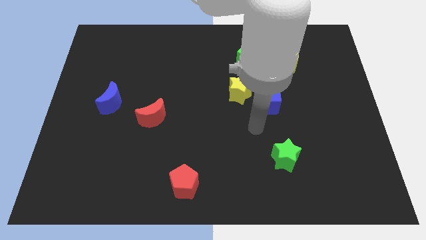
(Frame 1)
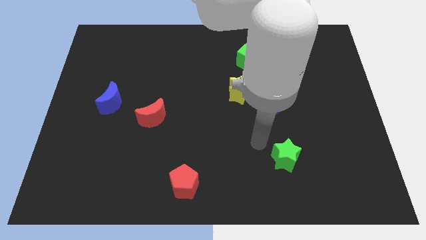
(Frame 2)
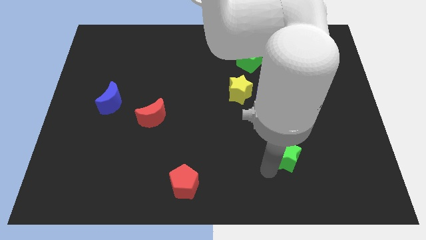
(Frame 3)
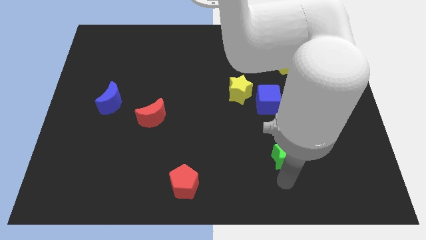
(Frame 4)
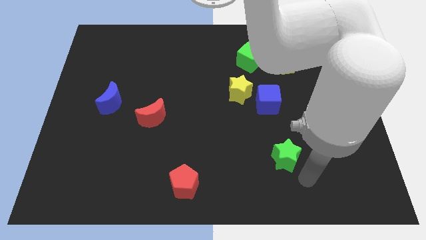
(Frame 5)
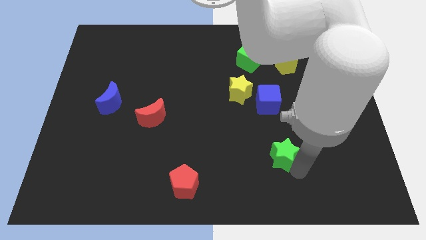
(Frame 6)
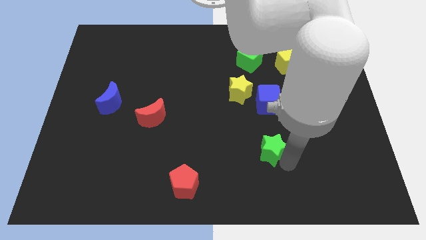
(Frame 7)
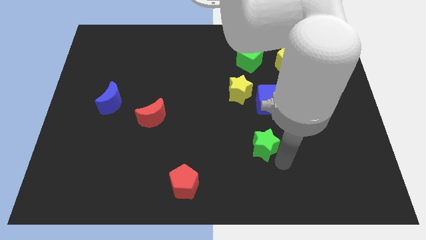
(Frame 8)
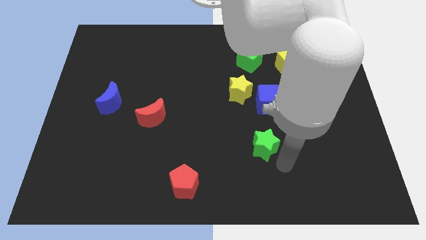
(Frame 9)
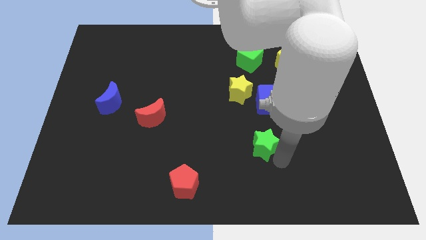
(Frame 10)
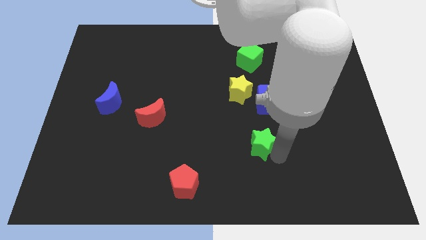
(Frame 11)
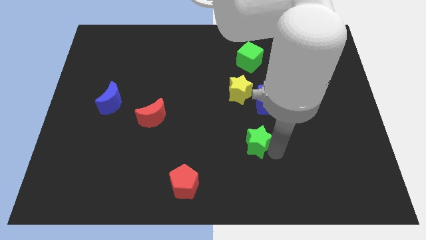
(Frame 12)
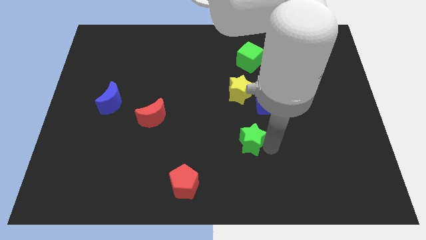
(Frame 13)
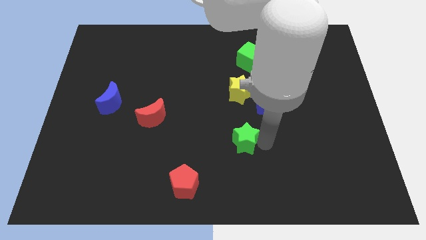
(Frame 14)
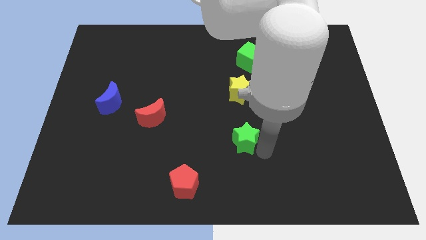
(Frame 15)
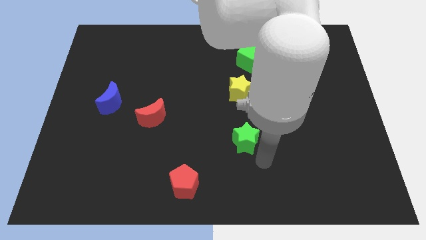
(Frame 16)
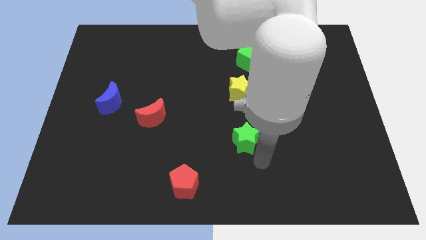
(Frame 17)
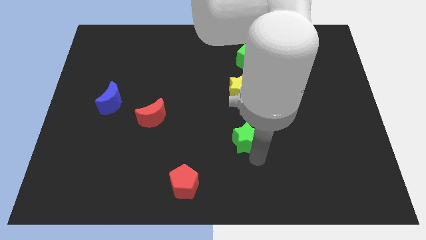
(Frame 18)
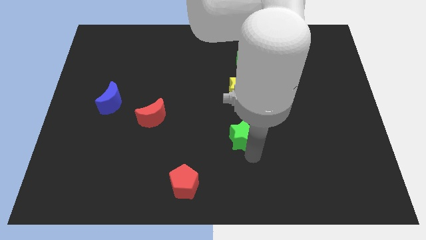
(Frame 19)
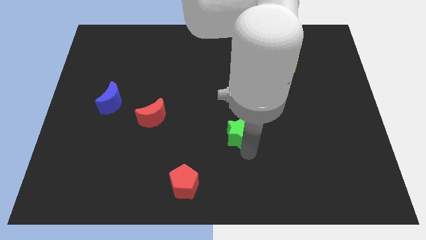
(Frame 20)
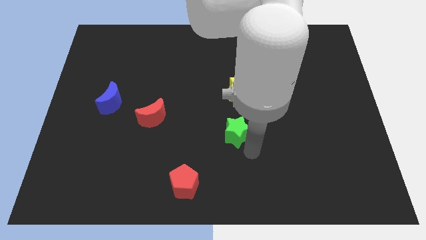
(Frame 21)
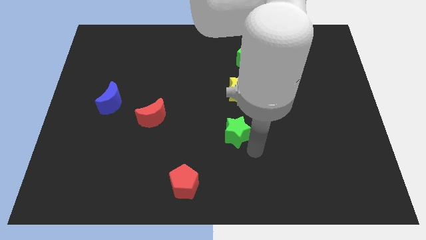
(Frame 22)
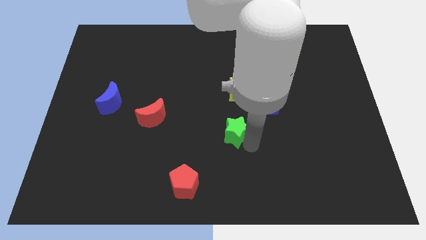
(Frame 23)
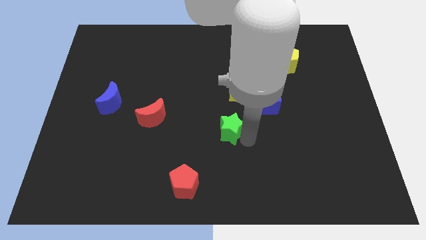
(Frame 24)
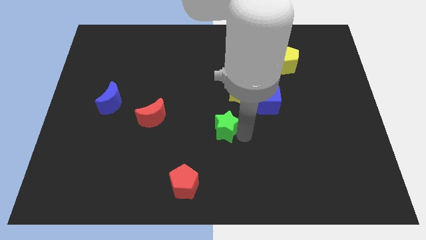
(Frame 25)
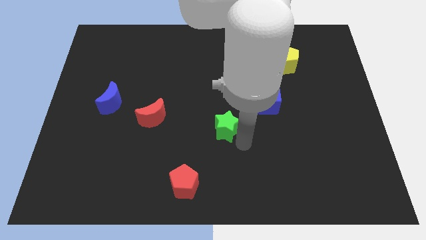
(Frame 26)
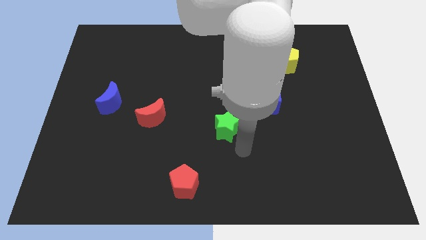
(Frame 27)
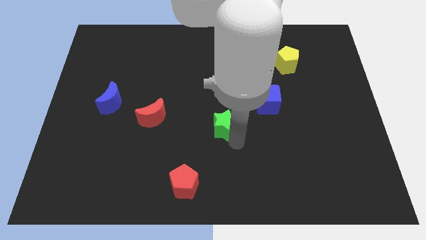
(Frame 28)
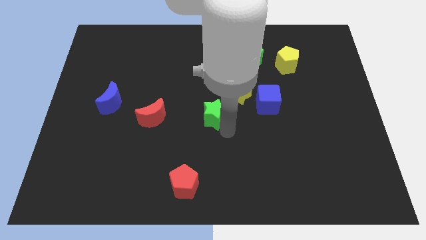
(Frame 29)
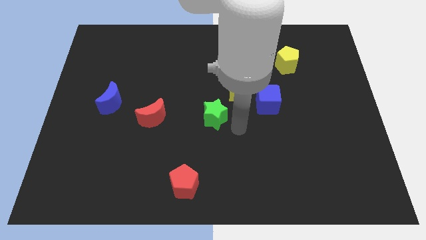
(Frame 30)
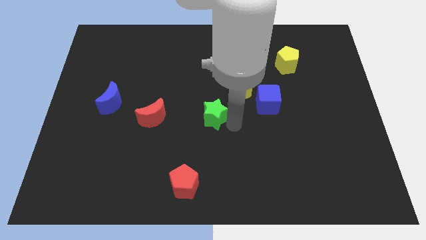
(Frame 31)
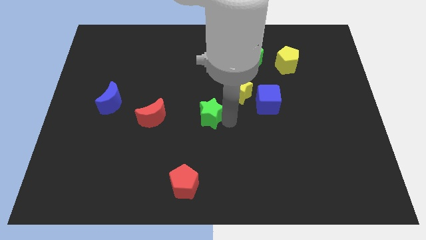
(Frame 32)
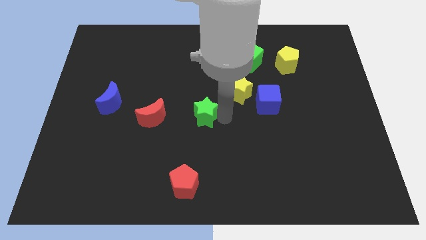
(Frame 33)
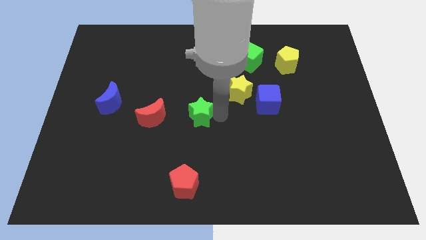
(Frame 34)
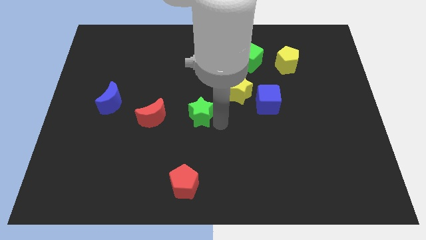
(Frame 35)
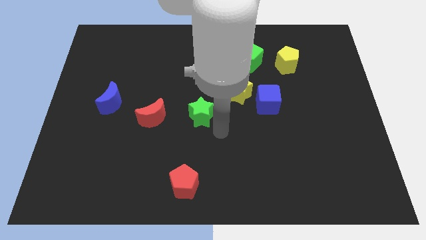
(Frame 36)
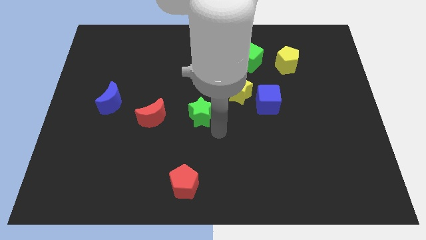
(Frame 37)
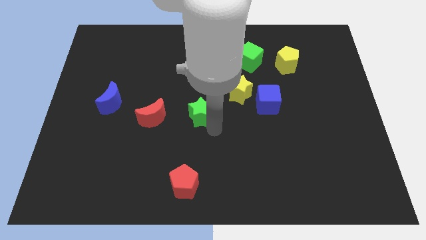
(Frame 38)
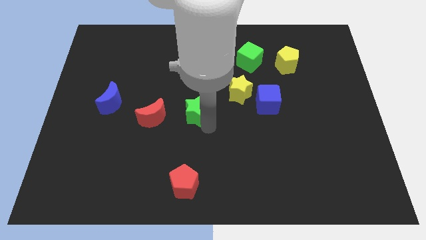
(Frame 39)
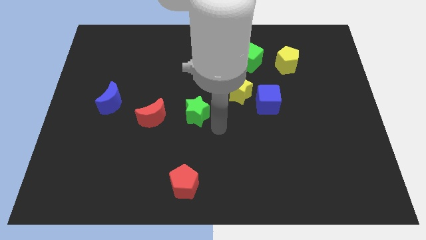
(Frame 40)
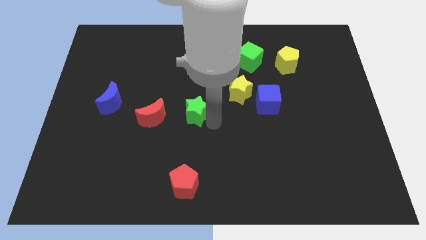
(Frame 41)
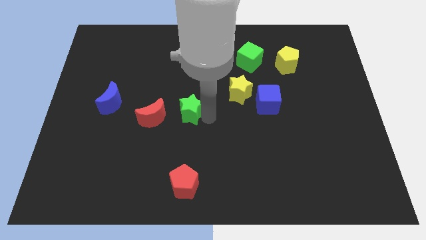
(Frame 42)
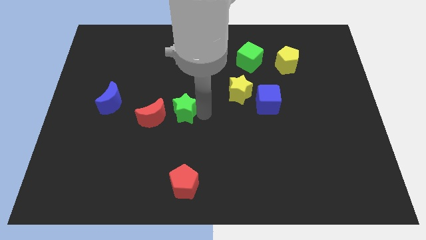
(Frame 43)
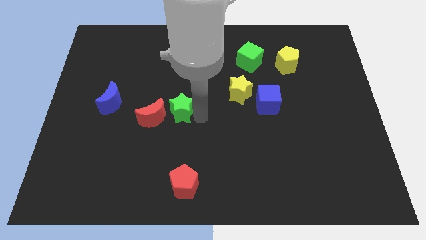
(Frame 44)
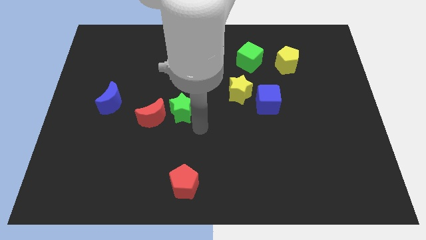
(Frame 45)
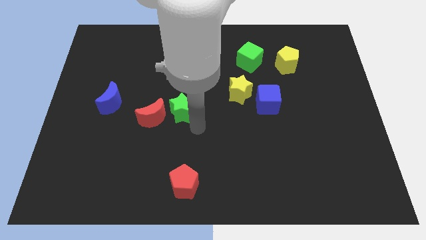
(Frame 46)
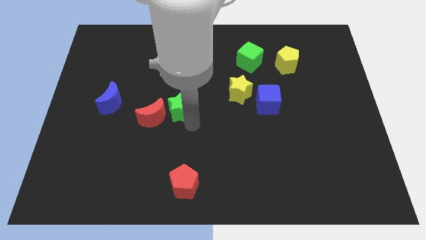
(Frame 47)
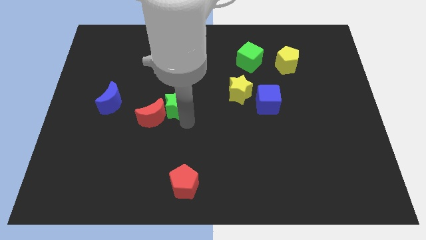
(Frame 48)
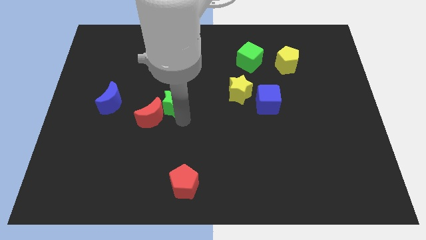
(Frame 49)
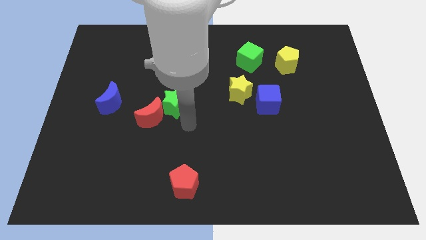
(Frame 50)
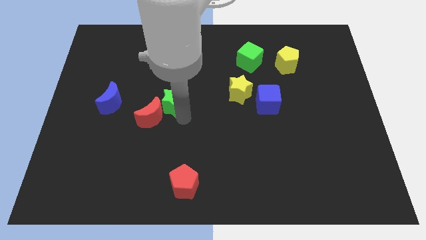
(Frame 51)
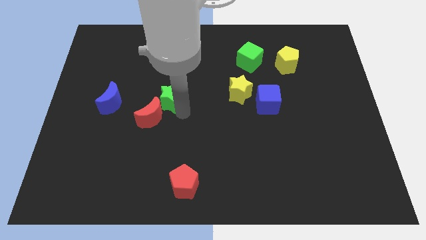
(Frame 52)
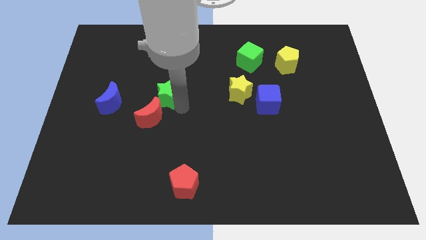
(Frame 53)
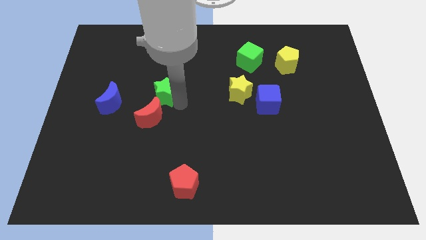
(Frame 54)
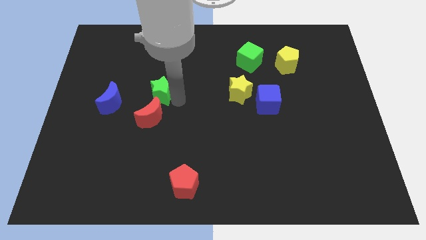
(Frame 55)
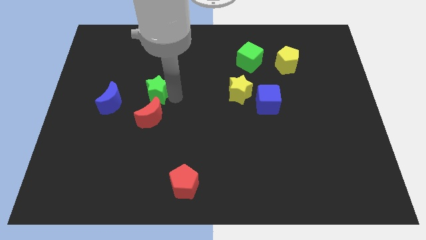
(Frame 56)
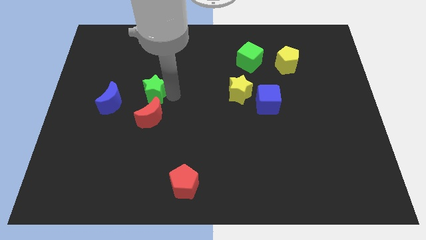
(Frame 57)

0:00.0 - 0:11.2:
put the green star to the top right side of the blue moon

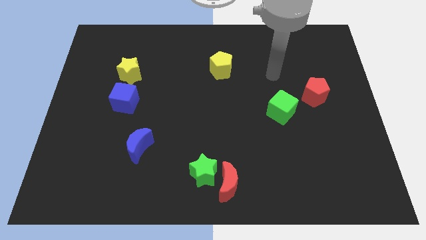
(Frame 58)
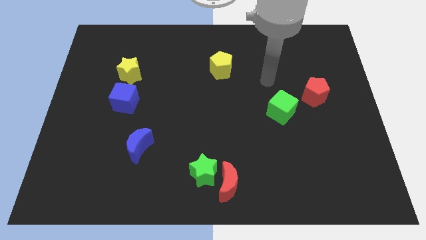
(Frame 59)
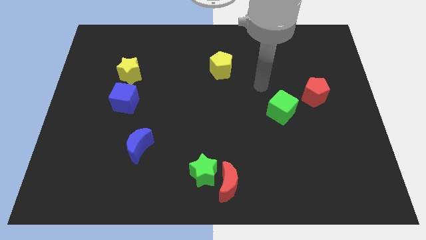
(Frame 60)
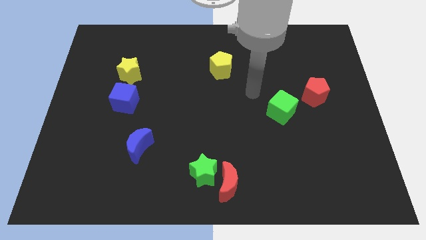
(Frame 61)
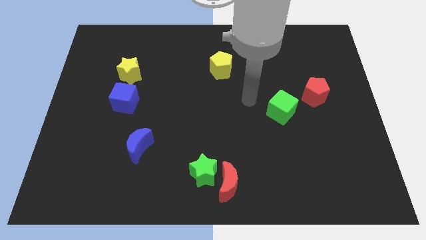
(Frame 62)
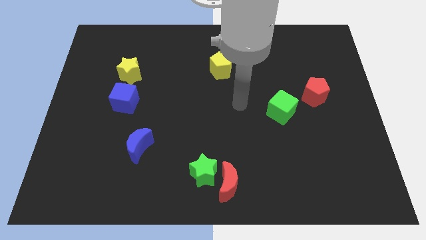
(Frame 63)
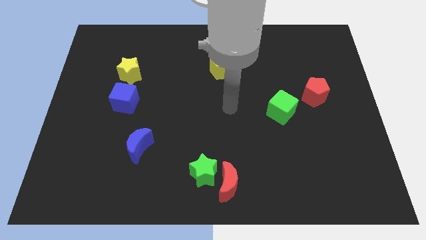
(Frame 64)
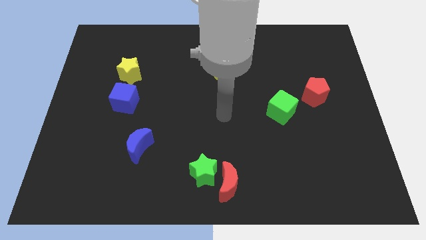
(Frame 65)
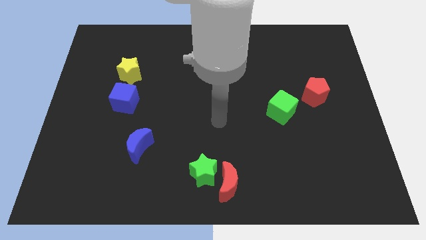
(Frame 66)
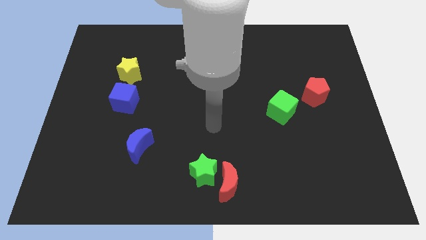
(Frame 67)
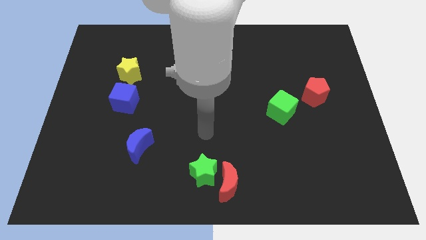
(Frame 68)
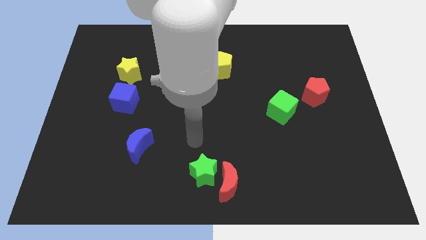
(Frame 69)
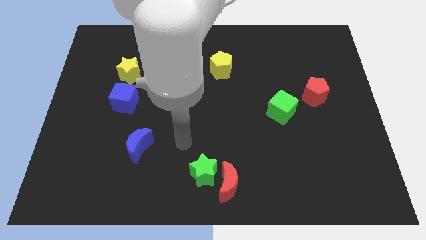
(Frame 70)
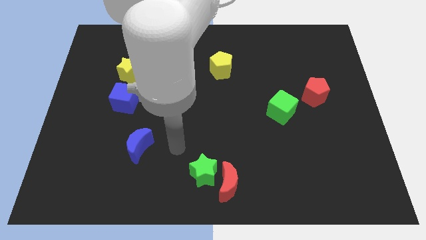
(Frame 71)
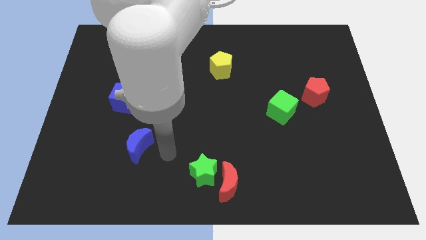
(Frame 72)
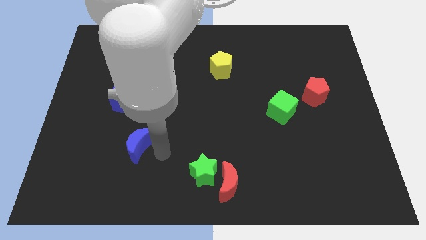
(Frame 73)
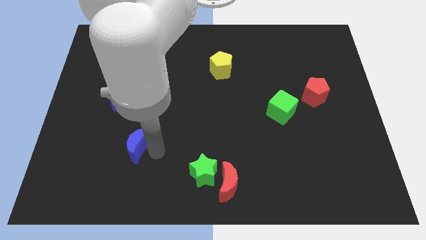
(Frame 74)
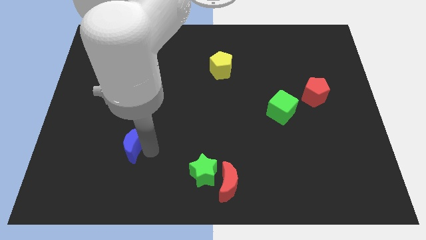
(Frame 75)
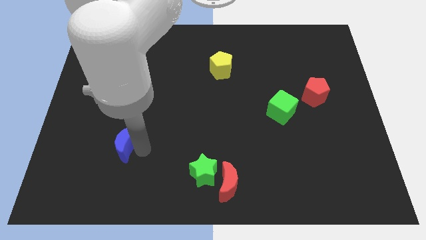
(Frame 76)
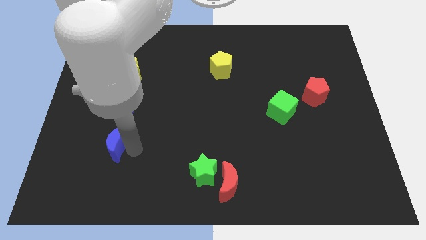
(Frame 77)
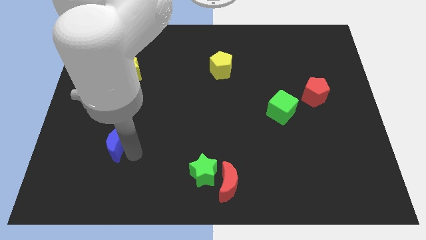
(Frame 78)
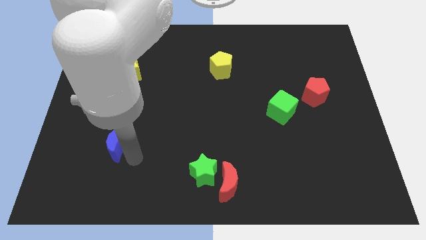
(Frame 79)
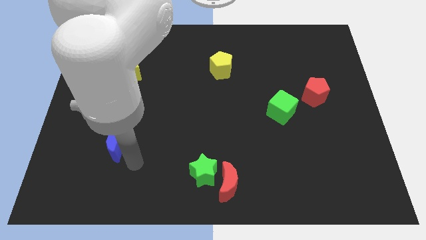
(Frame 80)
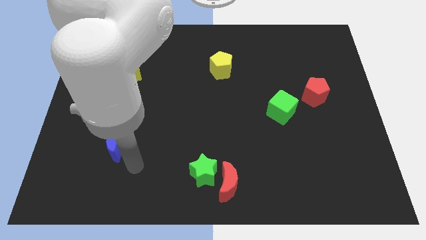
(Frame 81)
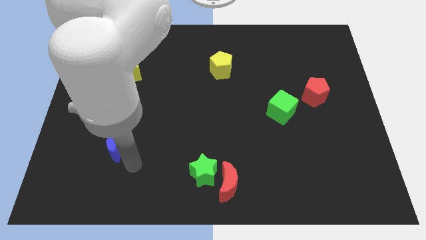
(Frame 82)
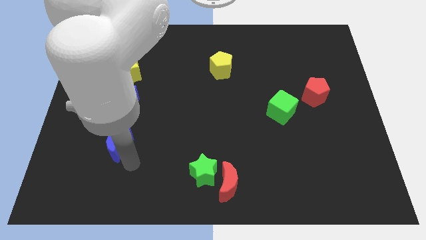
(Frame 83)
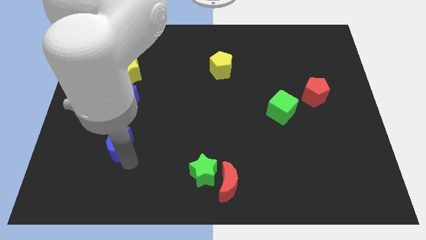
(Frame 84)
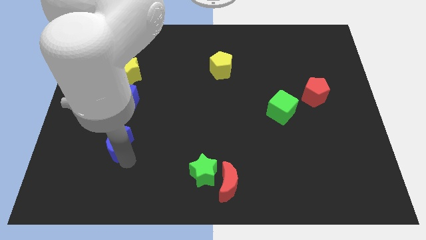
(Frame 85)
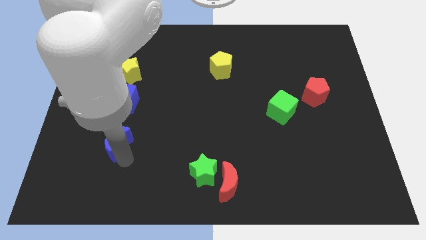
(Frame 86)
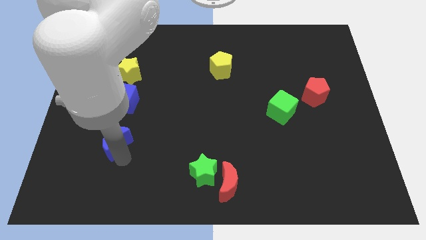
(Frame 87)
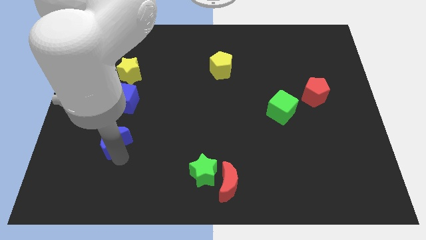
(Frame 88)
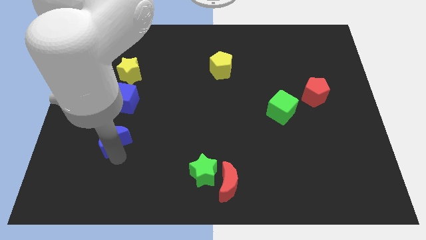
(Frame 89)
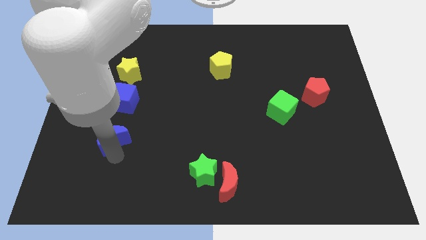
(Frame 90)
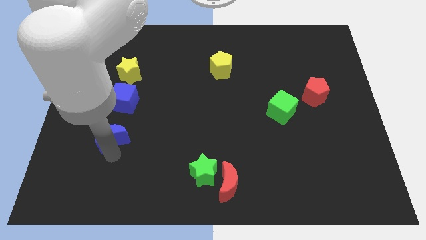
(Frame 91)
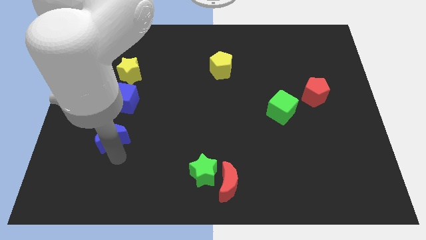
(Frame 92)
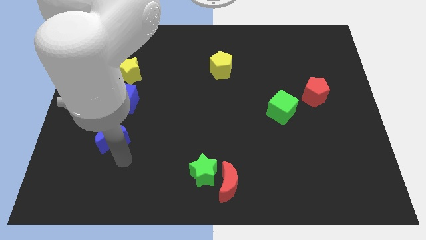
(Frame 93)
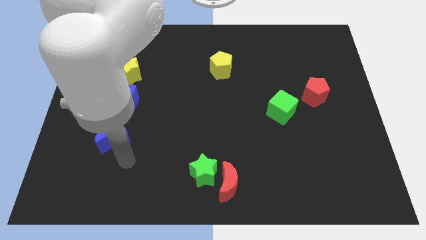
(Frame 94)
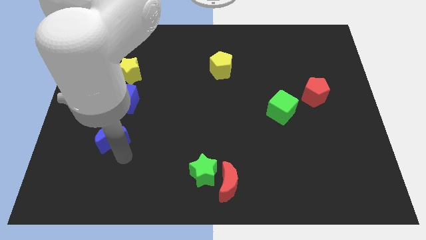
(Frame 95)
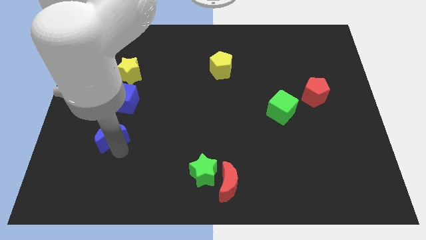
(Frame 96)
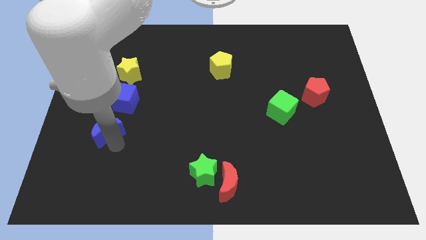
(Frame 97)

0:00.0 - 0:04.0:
slide the blue moon diagonally down and to the left of the blue cube
